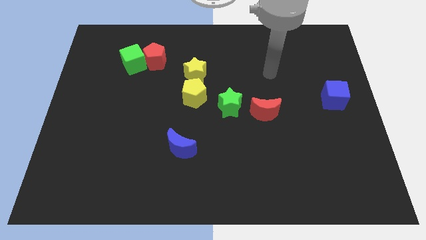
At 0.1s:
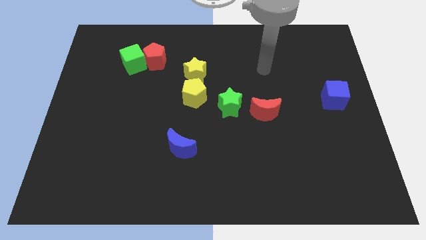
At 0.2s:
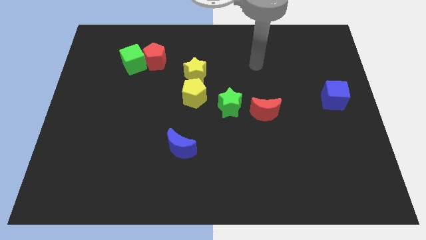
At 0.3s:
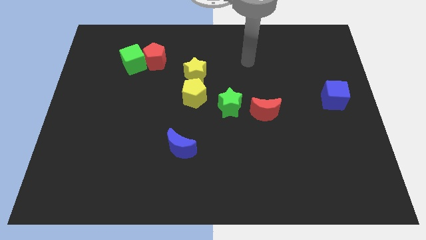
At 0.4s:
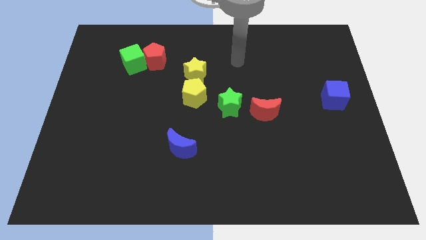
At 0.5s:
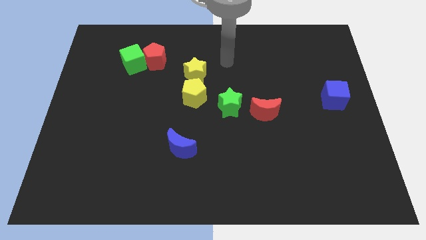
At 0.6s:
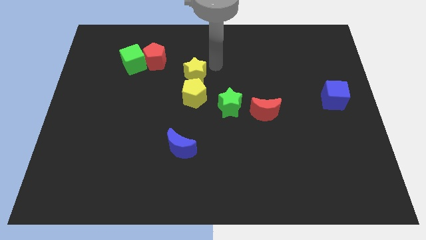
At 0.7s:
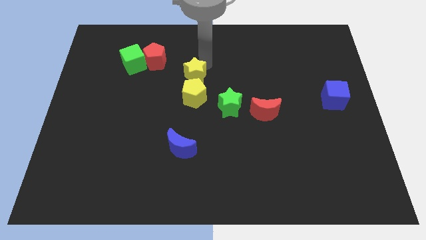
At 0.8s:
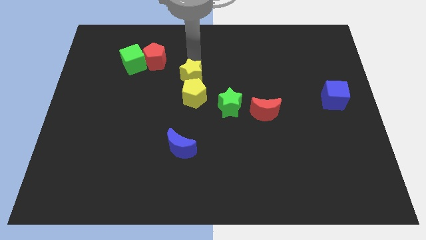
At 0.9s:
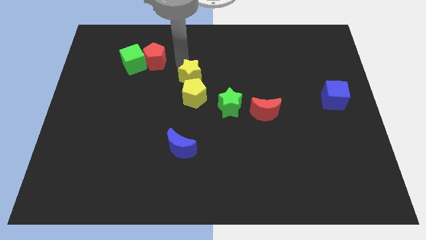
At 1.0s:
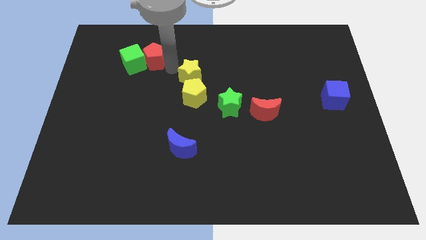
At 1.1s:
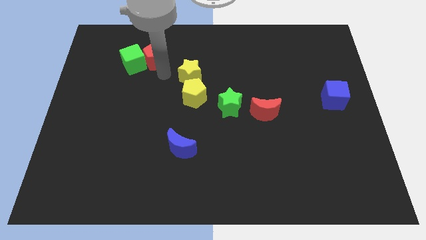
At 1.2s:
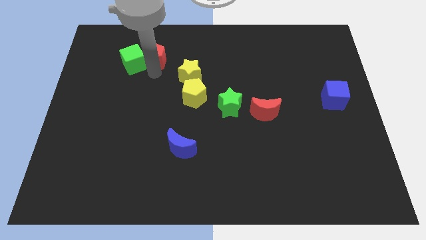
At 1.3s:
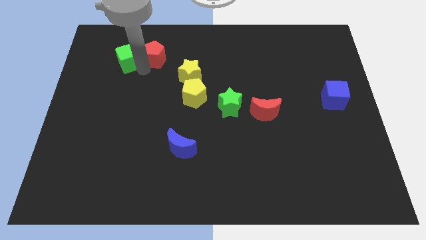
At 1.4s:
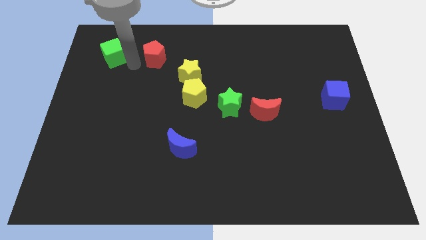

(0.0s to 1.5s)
pull the red pentagon apart from the green cube

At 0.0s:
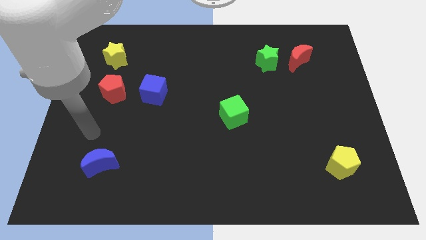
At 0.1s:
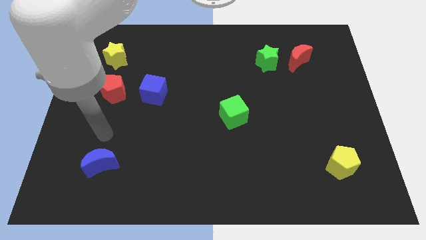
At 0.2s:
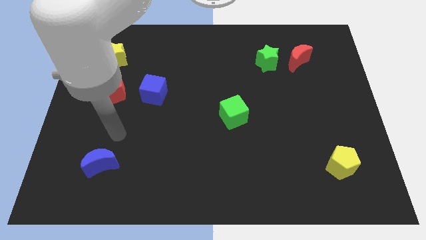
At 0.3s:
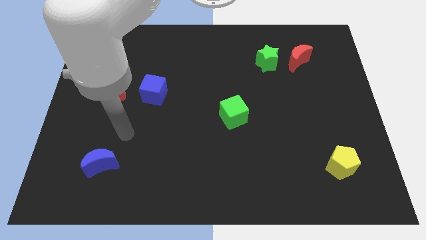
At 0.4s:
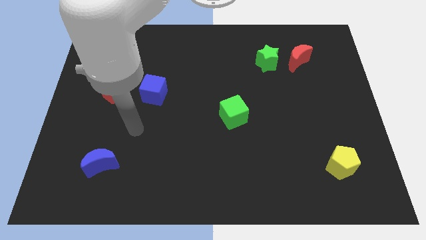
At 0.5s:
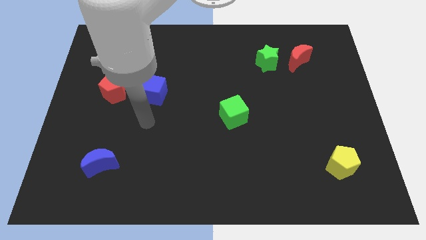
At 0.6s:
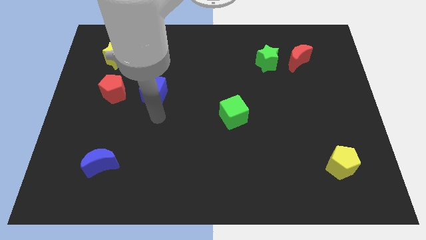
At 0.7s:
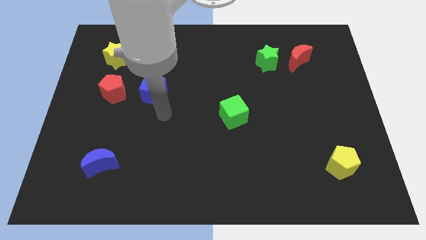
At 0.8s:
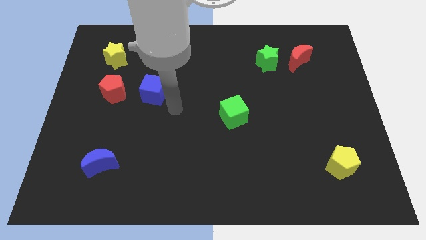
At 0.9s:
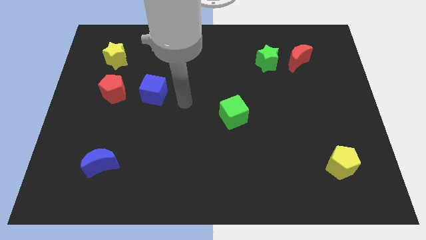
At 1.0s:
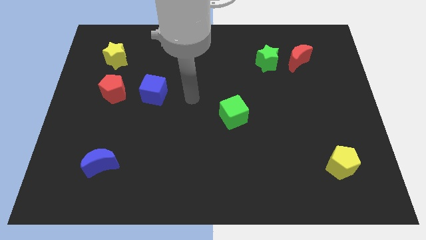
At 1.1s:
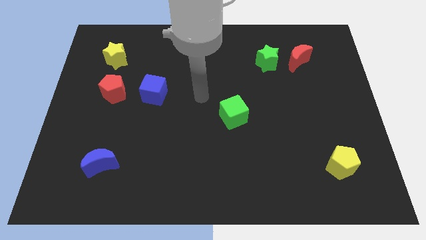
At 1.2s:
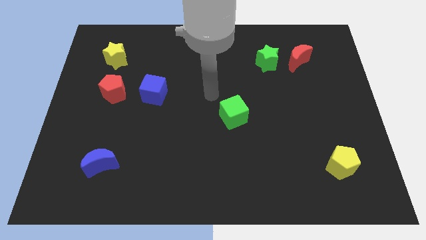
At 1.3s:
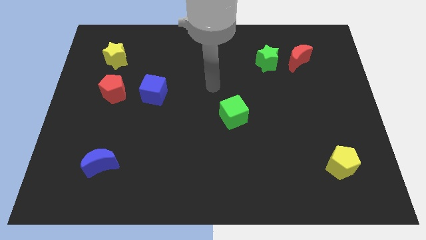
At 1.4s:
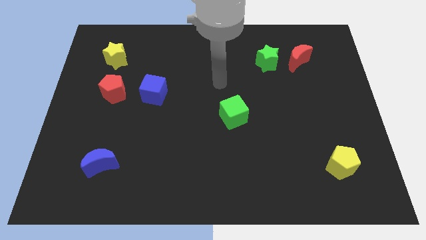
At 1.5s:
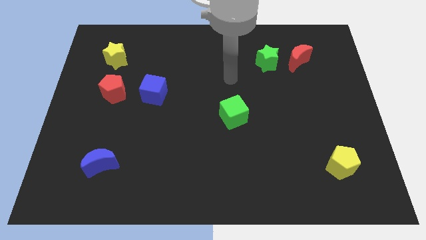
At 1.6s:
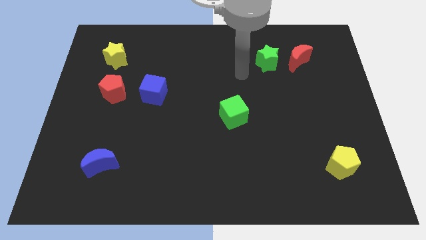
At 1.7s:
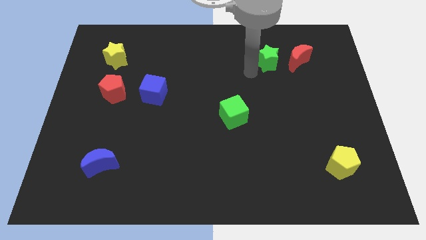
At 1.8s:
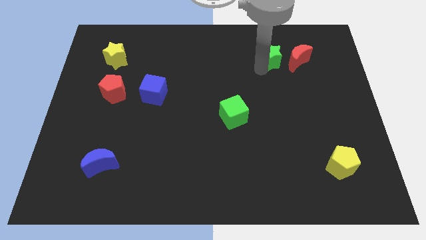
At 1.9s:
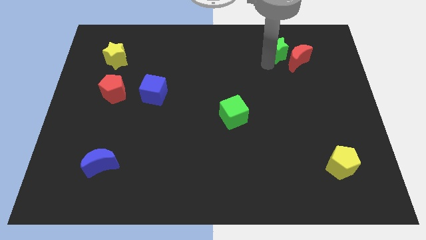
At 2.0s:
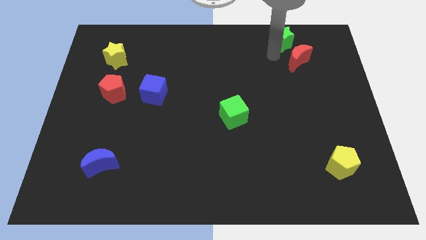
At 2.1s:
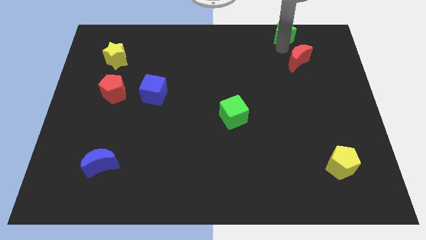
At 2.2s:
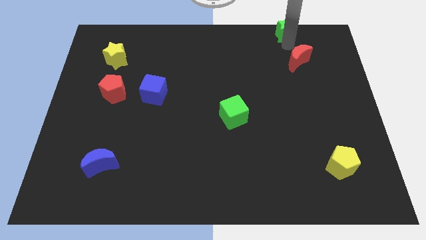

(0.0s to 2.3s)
pull the red moon apart from the green star

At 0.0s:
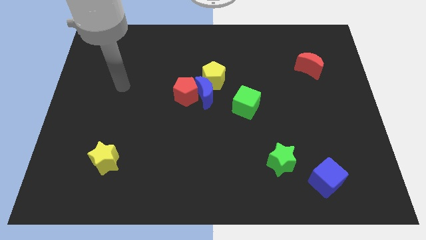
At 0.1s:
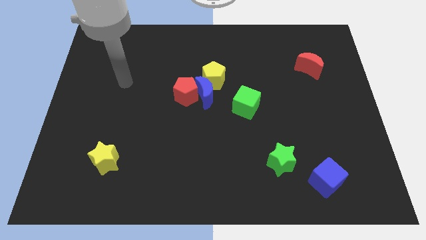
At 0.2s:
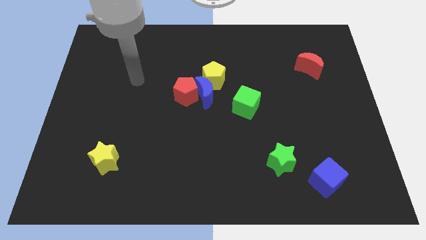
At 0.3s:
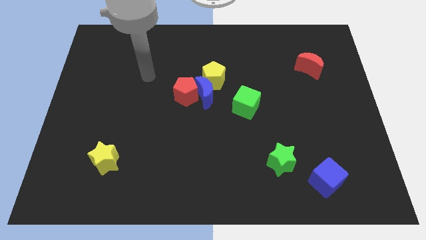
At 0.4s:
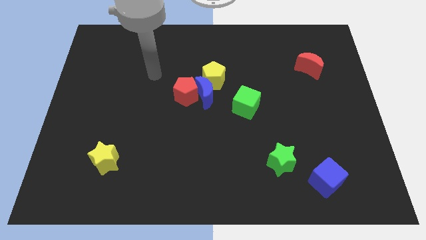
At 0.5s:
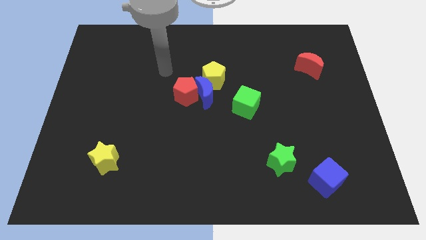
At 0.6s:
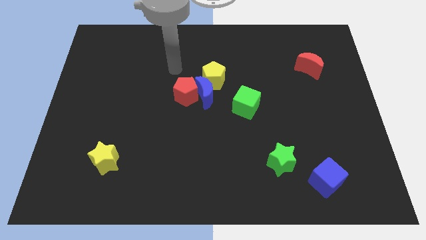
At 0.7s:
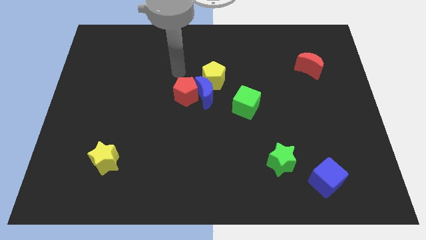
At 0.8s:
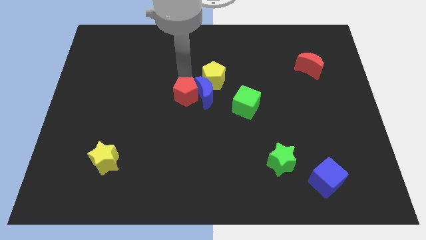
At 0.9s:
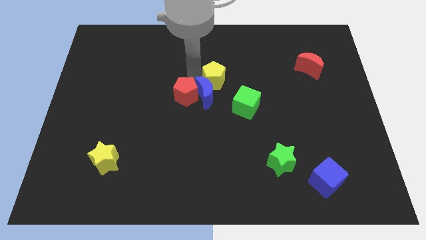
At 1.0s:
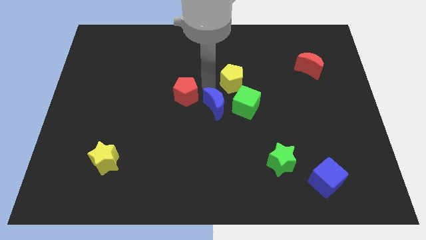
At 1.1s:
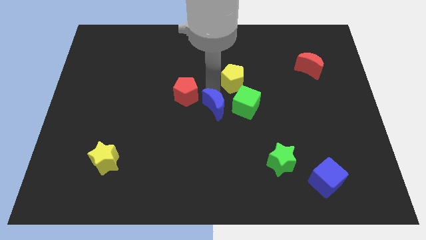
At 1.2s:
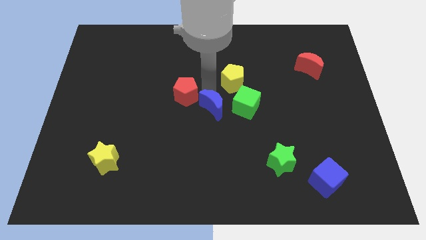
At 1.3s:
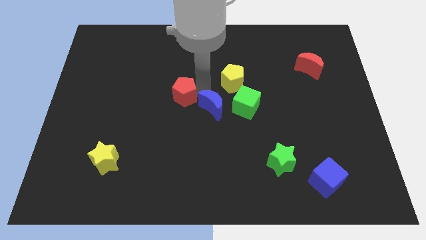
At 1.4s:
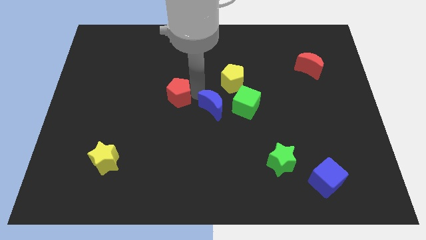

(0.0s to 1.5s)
separate the red pentagon from the blue moon and yellow pentagon

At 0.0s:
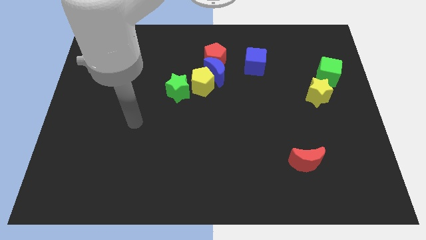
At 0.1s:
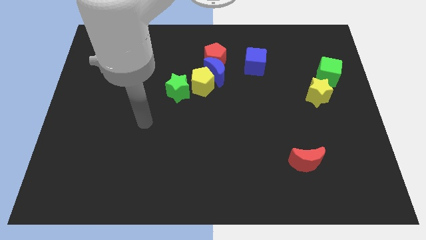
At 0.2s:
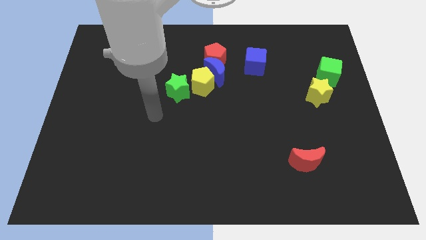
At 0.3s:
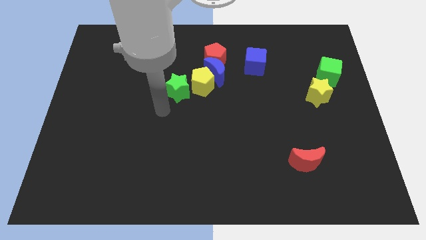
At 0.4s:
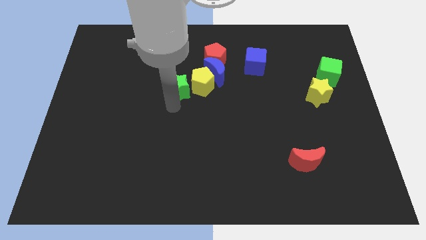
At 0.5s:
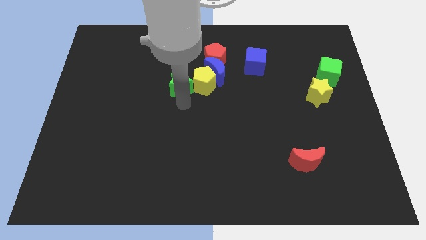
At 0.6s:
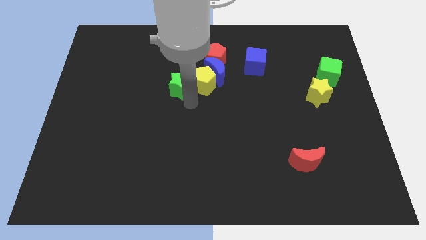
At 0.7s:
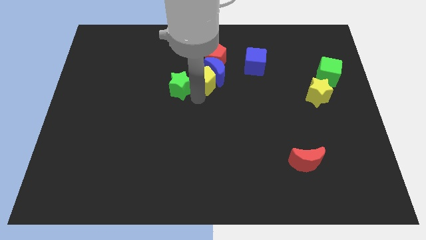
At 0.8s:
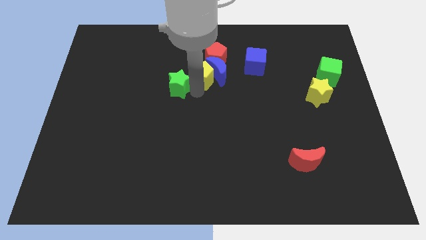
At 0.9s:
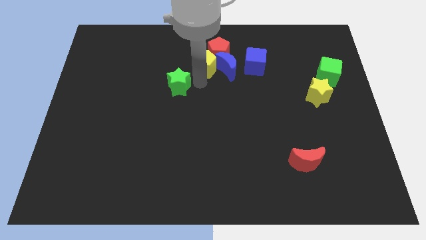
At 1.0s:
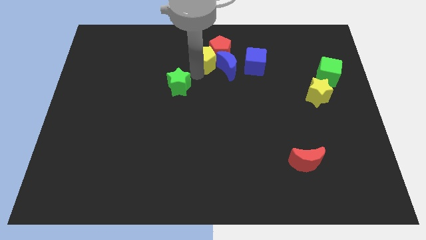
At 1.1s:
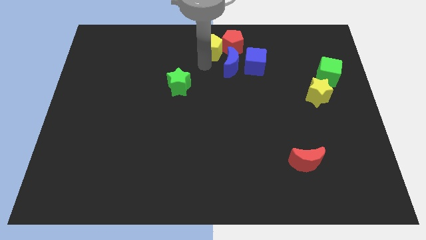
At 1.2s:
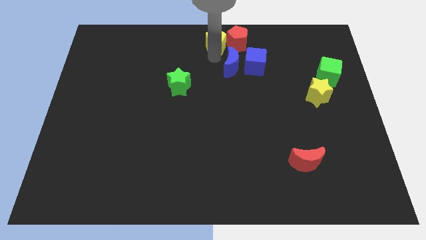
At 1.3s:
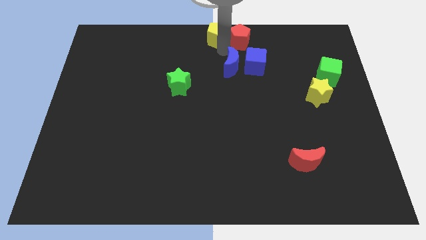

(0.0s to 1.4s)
pull the blue moon apart from the red pentagon and yellow pentagon

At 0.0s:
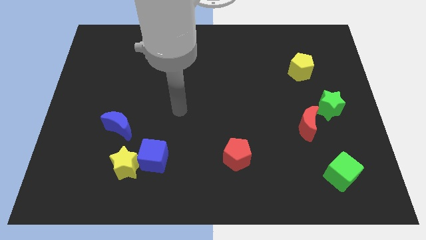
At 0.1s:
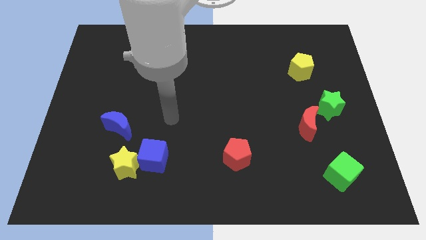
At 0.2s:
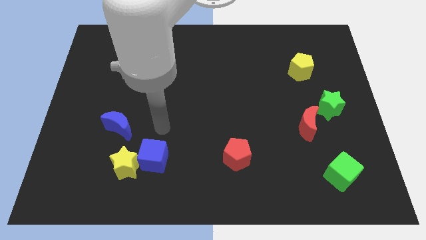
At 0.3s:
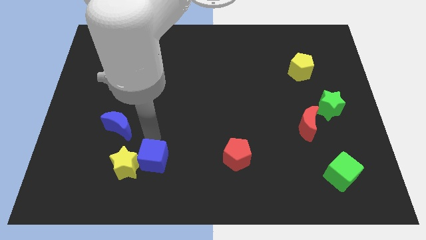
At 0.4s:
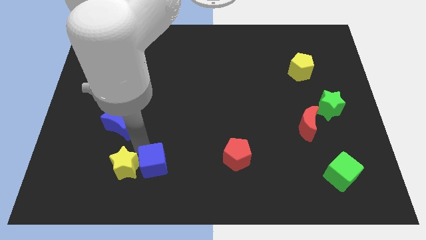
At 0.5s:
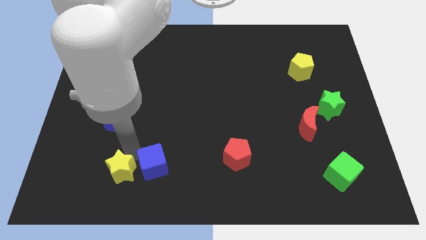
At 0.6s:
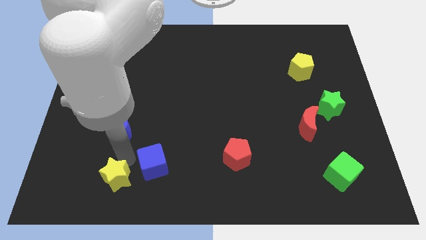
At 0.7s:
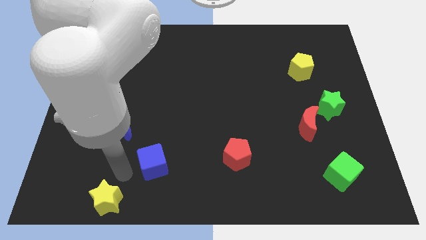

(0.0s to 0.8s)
separate the blue cube from the yellow star

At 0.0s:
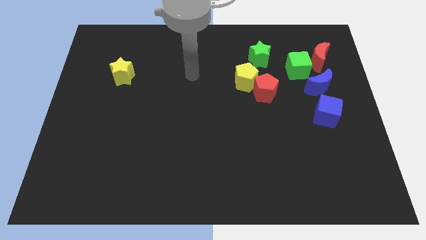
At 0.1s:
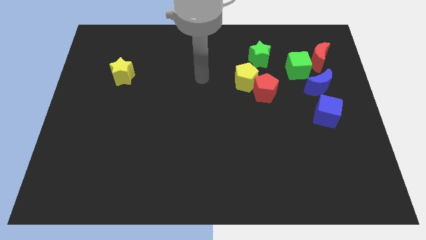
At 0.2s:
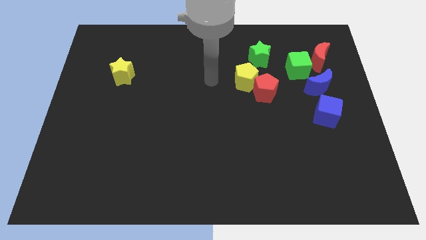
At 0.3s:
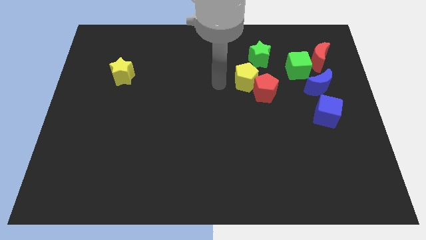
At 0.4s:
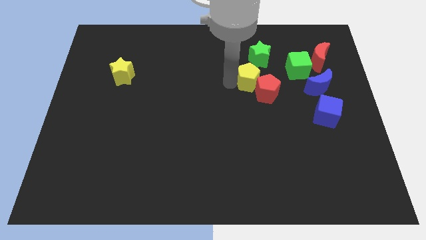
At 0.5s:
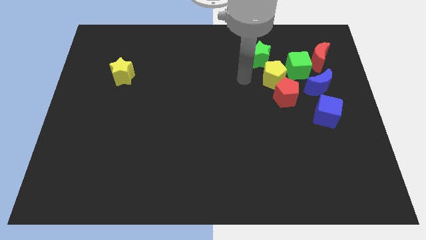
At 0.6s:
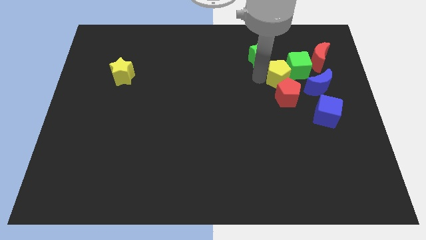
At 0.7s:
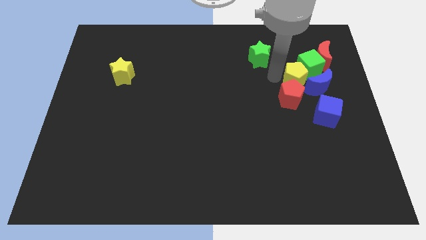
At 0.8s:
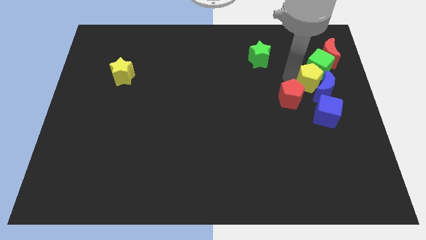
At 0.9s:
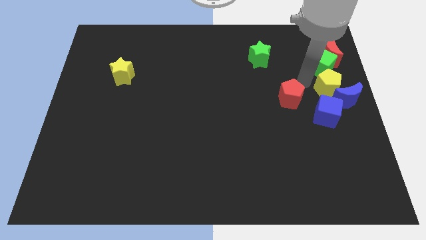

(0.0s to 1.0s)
move the red pentagon away from the yellow pentagon

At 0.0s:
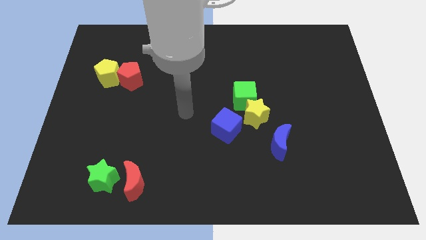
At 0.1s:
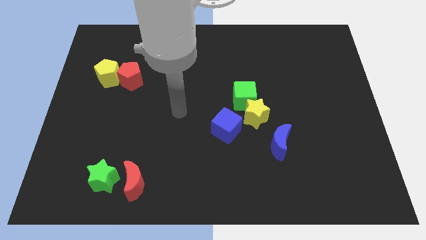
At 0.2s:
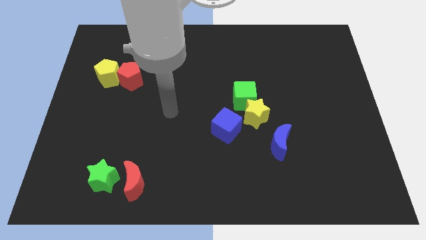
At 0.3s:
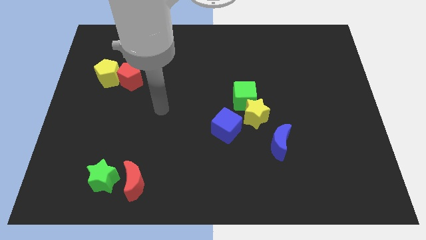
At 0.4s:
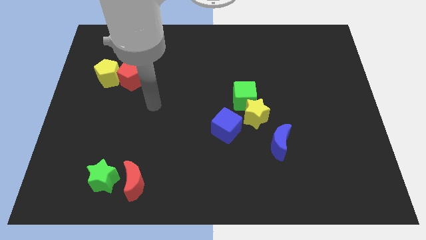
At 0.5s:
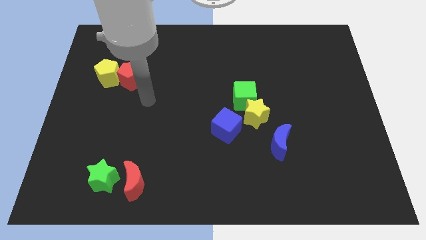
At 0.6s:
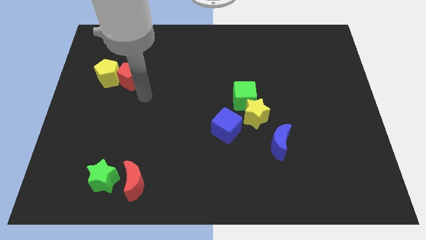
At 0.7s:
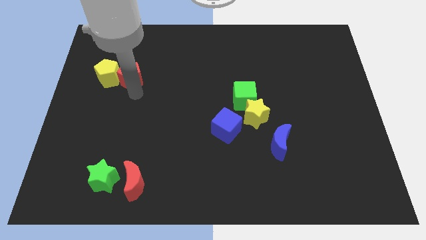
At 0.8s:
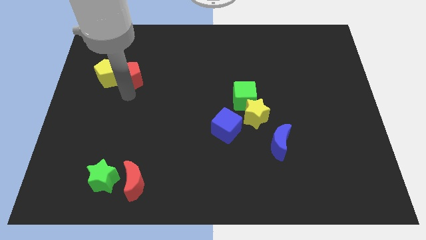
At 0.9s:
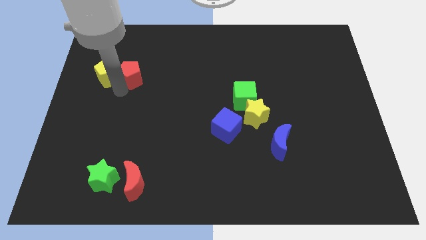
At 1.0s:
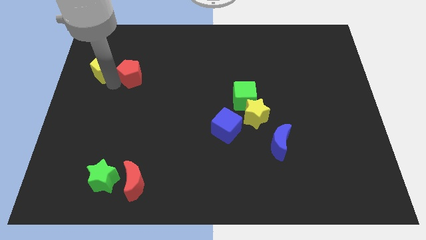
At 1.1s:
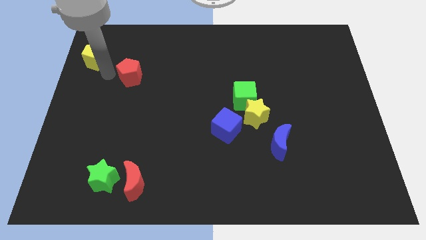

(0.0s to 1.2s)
pull the red pentagon apart from the yellow pentagon
